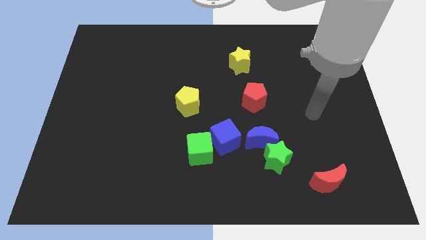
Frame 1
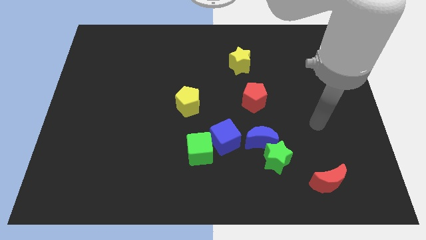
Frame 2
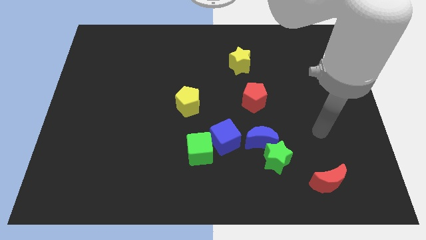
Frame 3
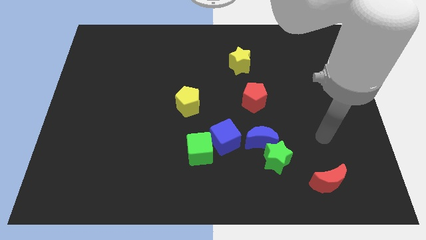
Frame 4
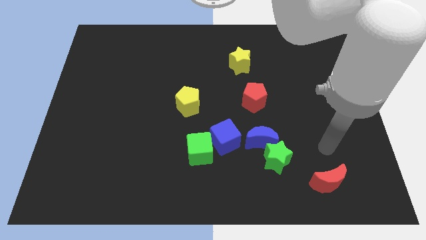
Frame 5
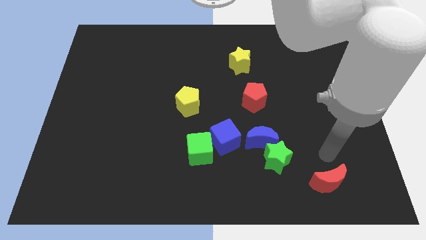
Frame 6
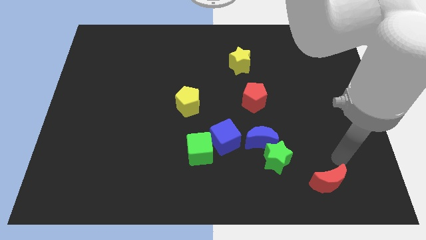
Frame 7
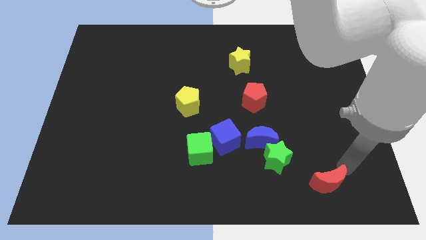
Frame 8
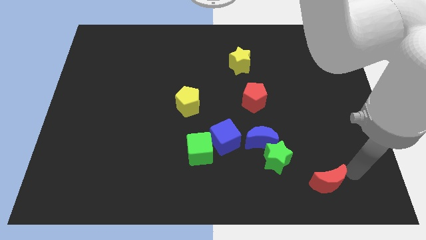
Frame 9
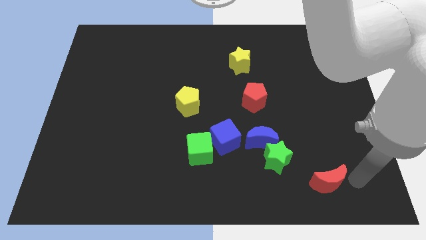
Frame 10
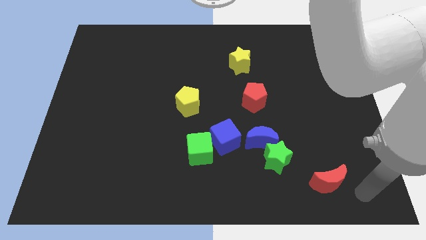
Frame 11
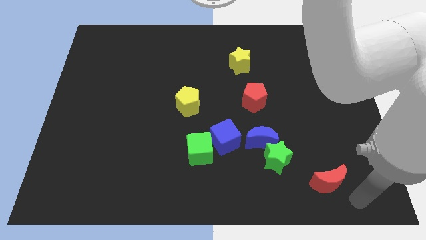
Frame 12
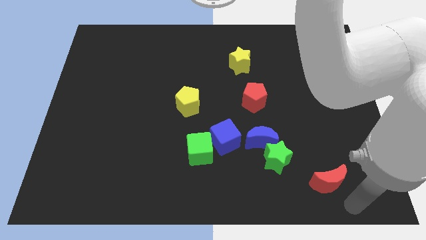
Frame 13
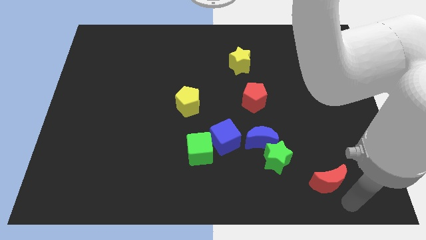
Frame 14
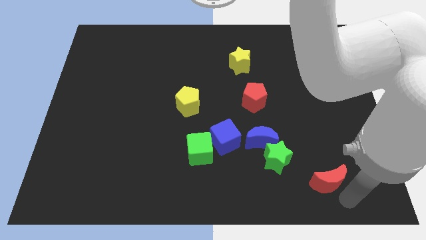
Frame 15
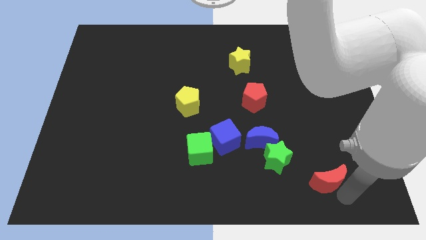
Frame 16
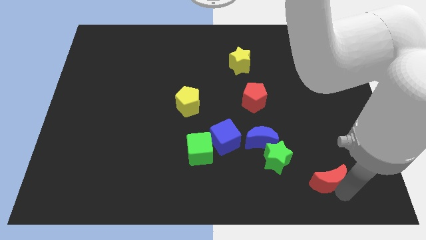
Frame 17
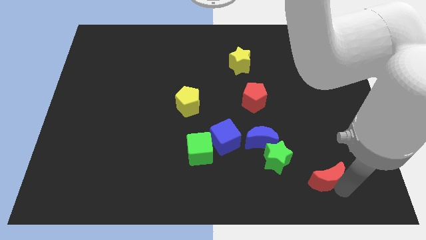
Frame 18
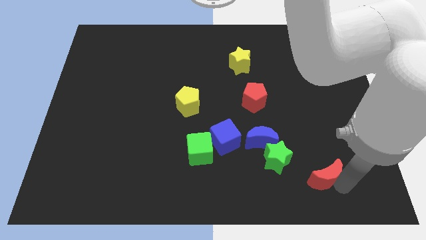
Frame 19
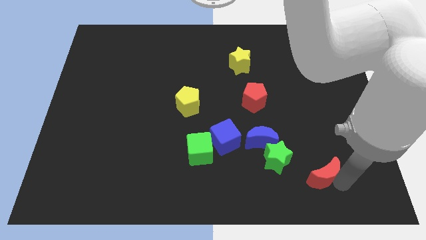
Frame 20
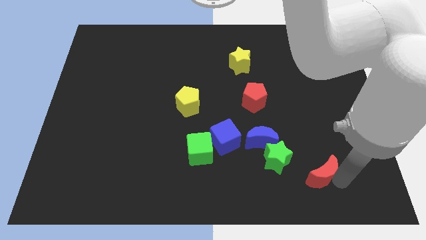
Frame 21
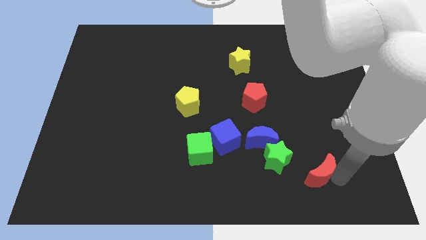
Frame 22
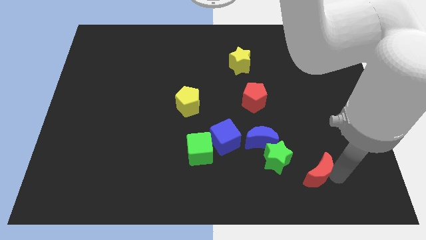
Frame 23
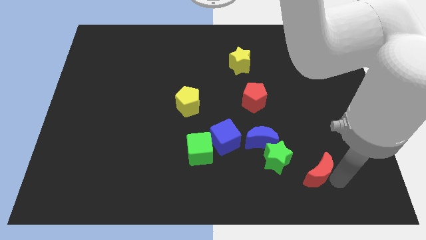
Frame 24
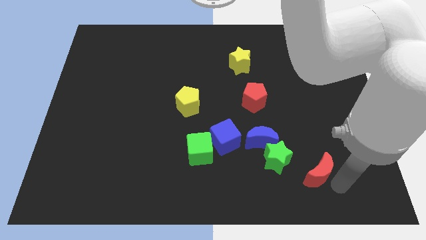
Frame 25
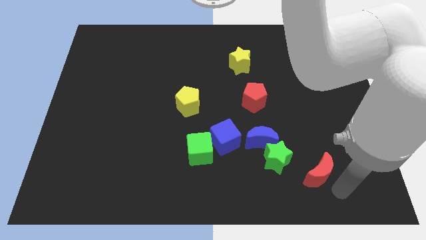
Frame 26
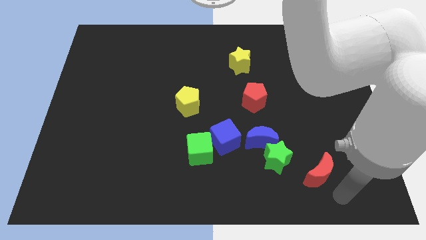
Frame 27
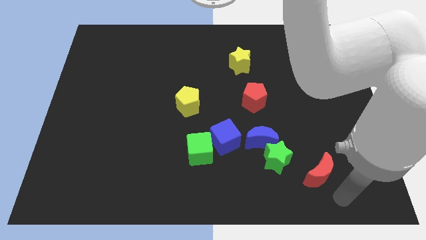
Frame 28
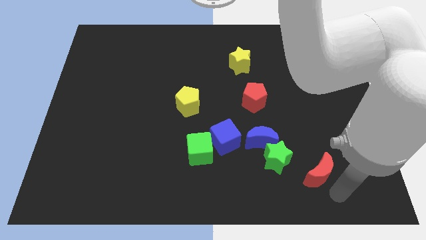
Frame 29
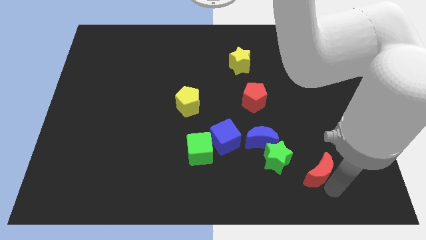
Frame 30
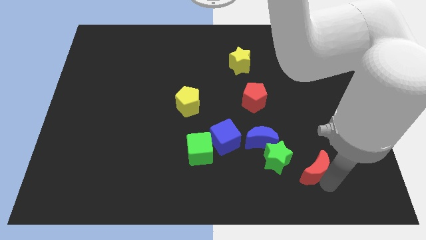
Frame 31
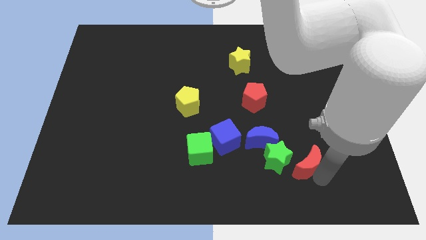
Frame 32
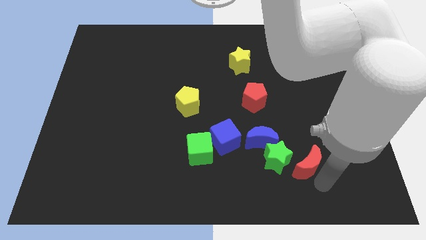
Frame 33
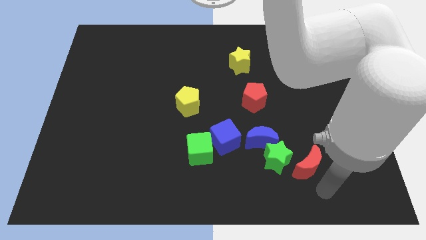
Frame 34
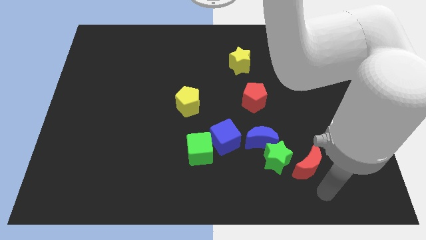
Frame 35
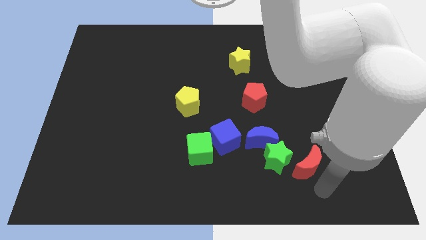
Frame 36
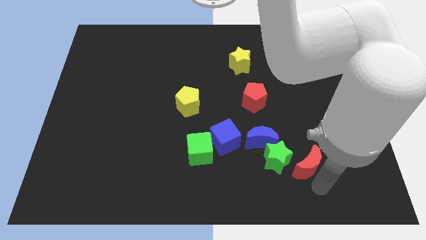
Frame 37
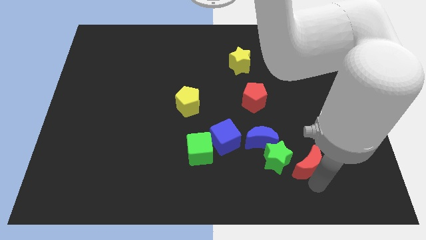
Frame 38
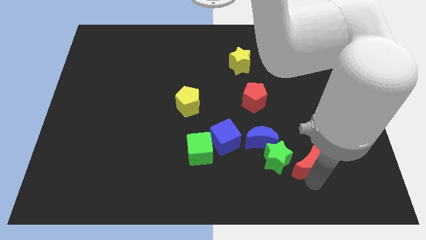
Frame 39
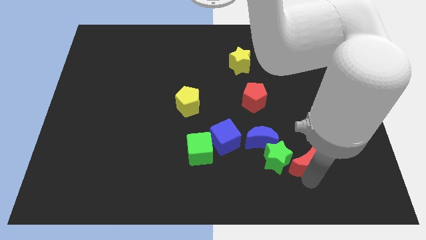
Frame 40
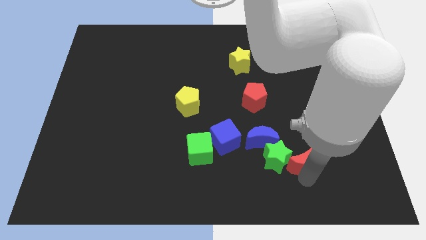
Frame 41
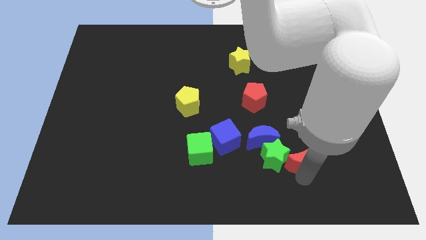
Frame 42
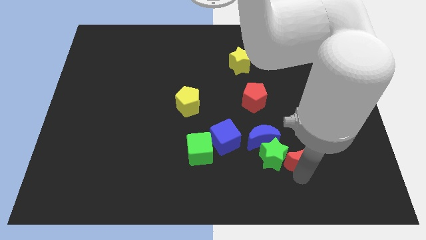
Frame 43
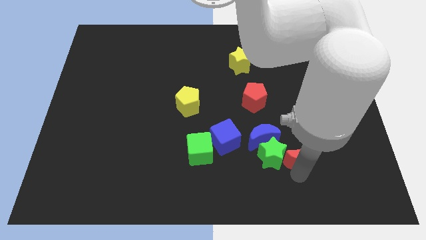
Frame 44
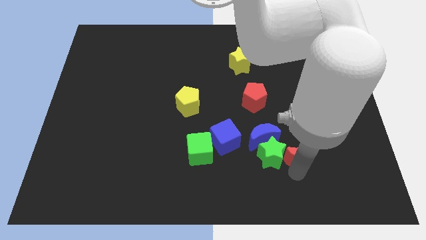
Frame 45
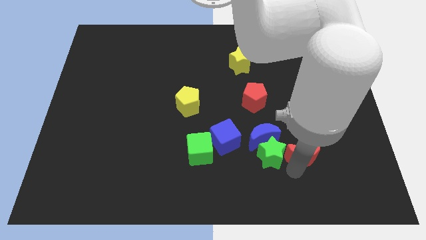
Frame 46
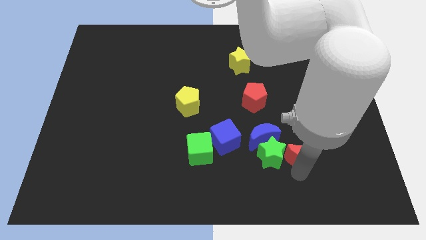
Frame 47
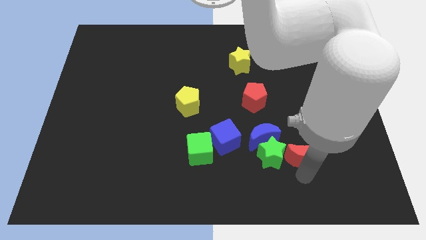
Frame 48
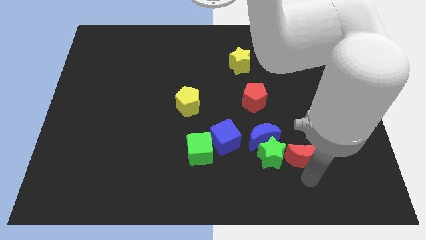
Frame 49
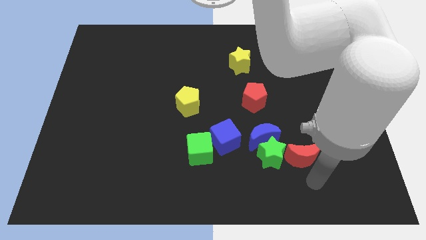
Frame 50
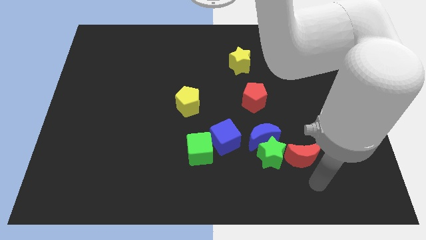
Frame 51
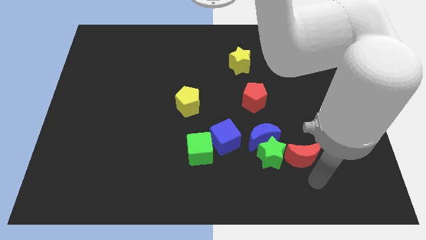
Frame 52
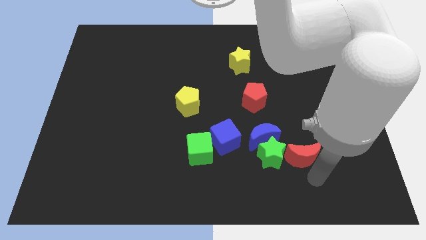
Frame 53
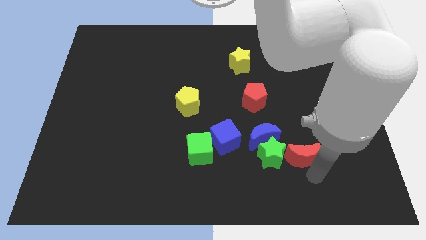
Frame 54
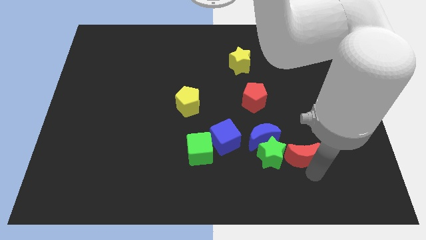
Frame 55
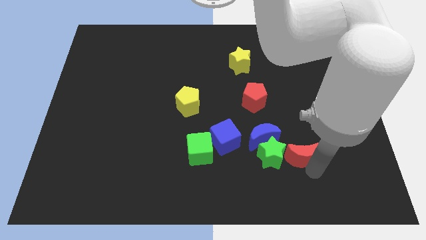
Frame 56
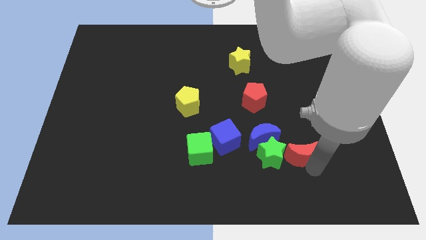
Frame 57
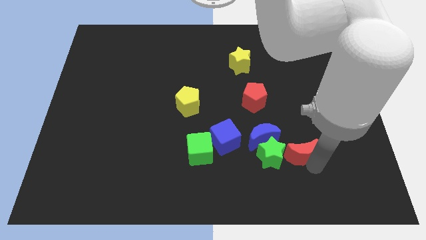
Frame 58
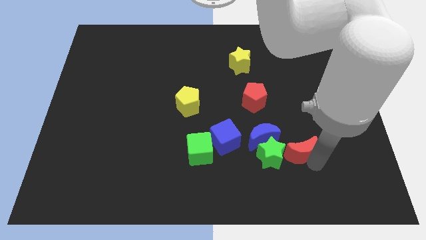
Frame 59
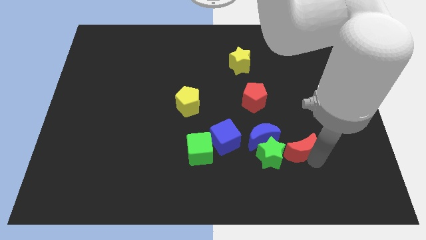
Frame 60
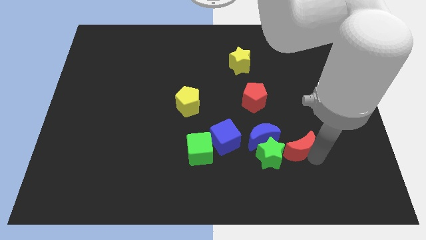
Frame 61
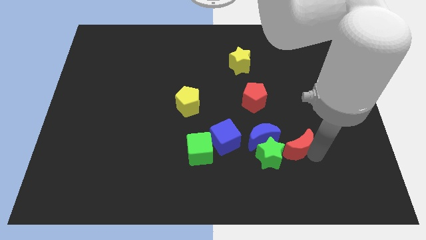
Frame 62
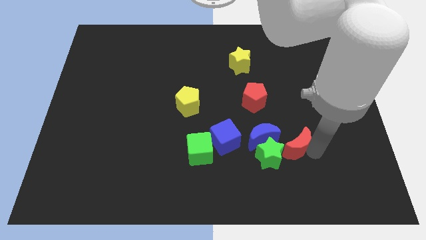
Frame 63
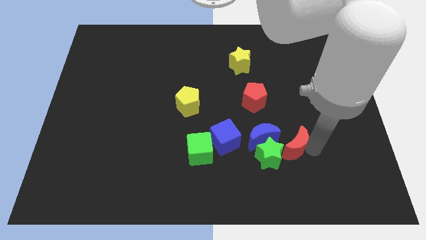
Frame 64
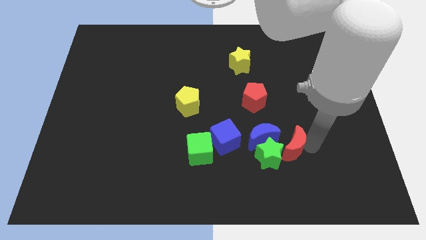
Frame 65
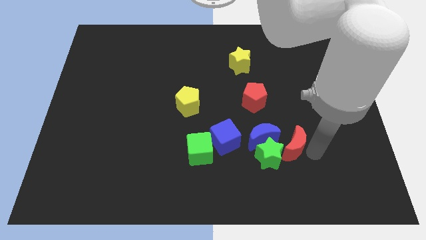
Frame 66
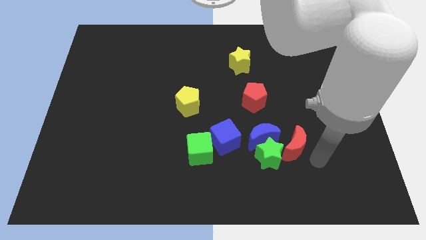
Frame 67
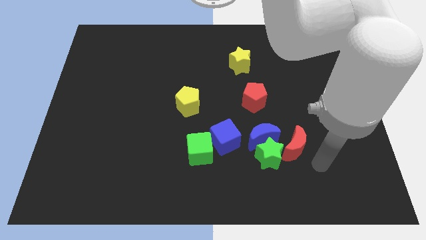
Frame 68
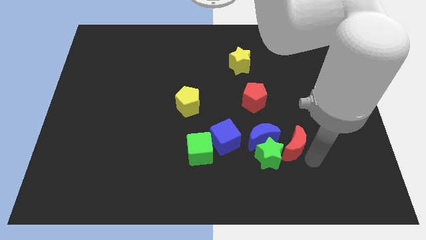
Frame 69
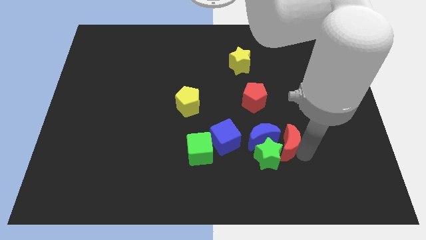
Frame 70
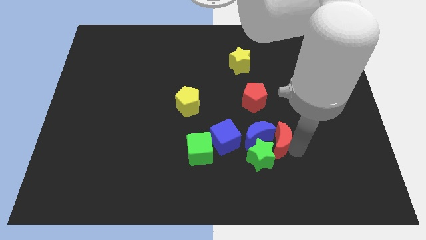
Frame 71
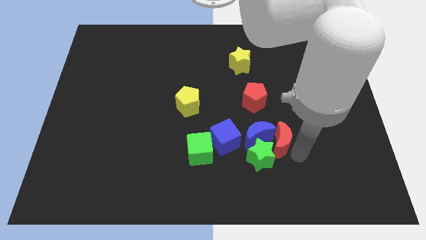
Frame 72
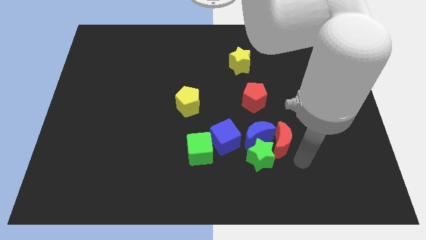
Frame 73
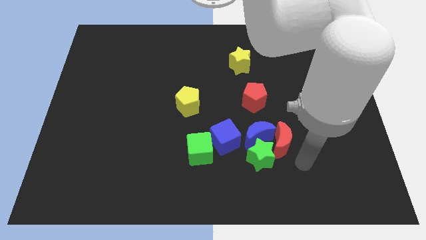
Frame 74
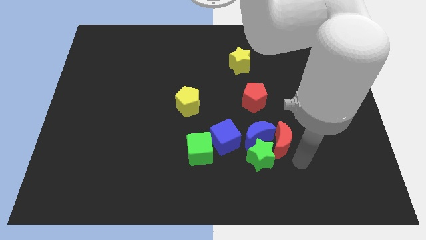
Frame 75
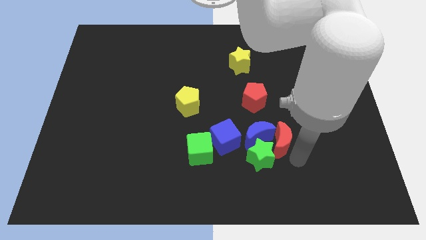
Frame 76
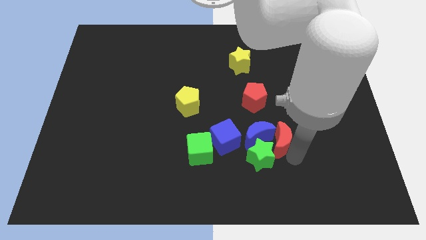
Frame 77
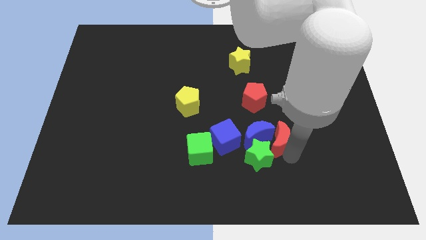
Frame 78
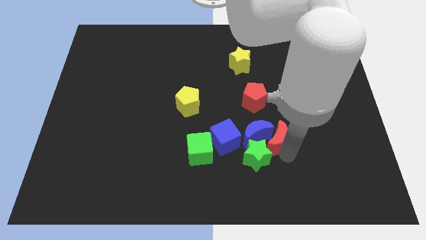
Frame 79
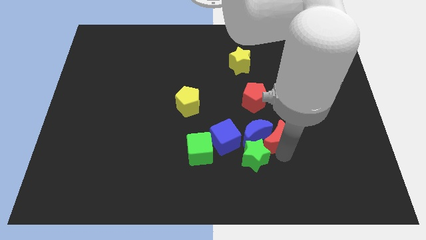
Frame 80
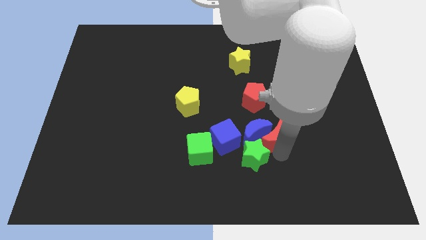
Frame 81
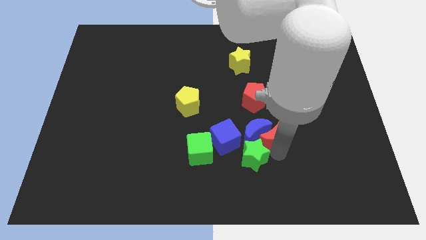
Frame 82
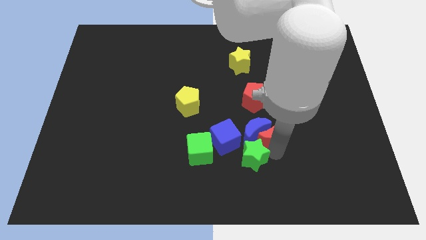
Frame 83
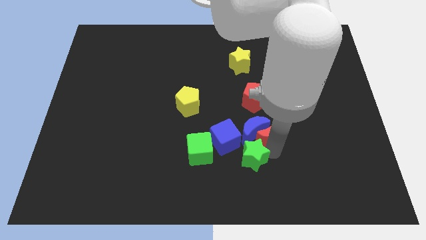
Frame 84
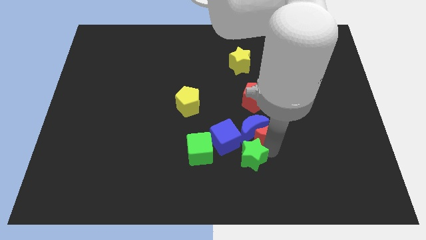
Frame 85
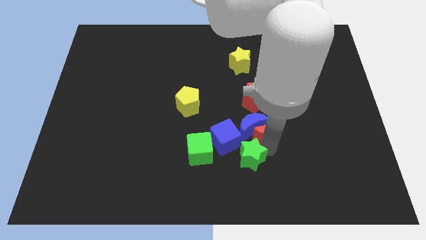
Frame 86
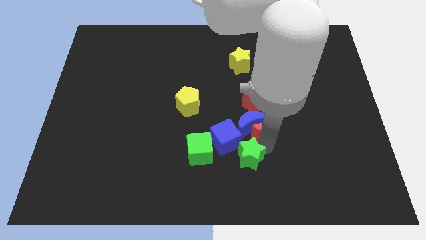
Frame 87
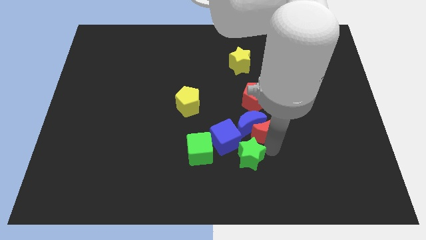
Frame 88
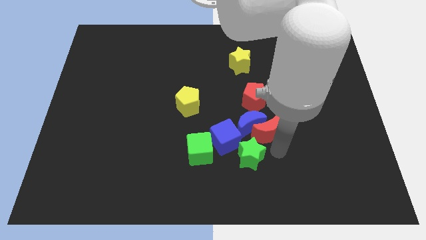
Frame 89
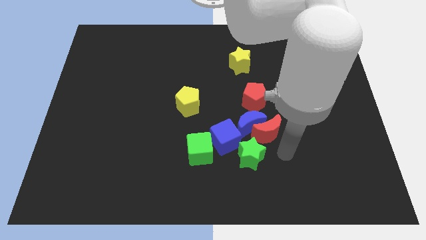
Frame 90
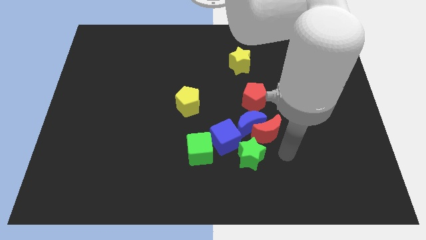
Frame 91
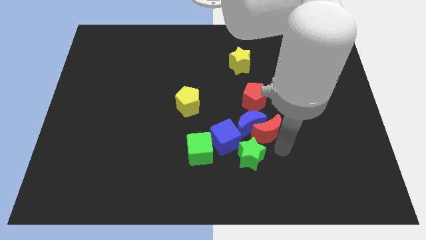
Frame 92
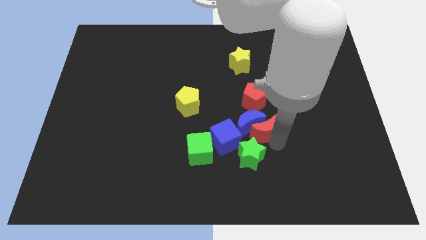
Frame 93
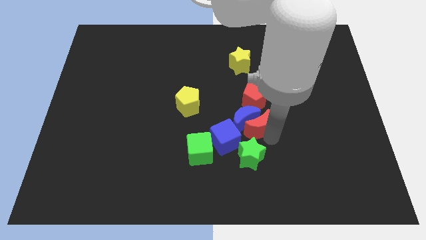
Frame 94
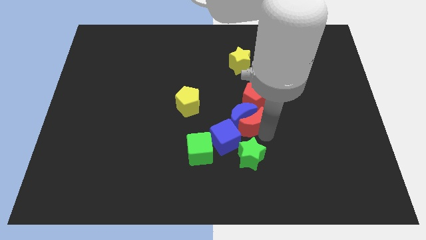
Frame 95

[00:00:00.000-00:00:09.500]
slide the red moon to the middle
